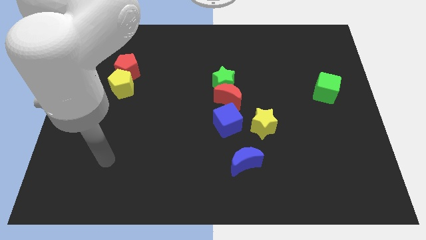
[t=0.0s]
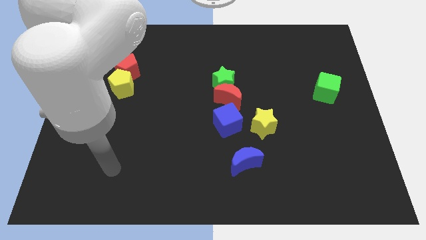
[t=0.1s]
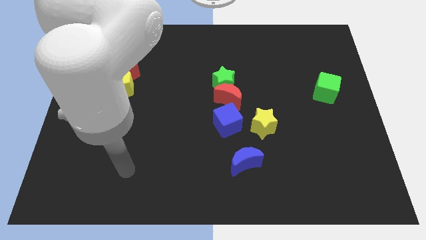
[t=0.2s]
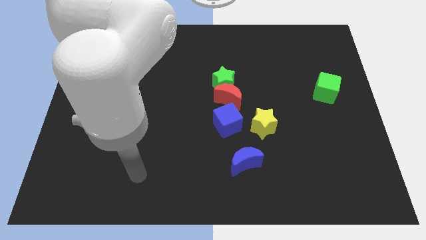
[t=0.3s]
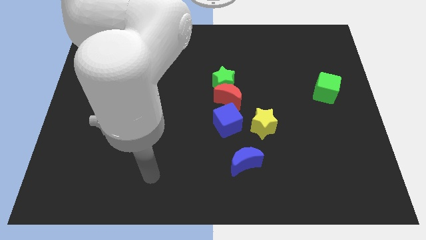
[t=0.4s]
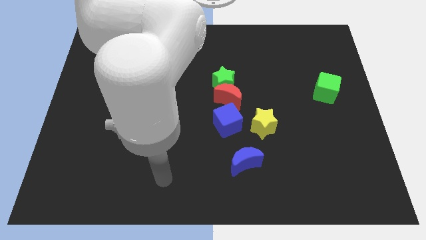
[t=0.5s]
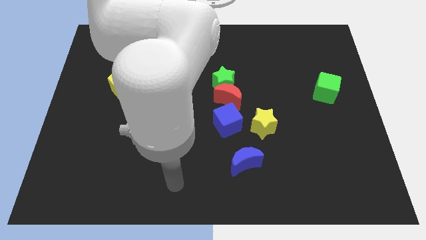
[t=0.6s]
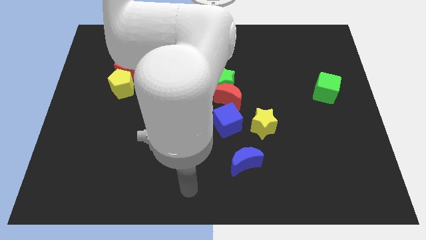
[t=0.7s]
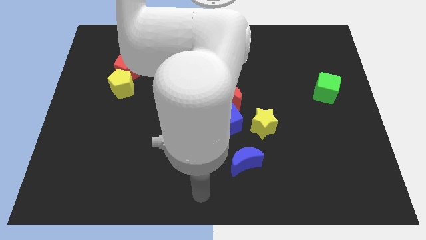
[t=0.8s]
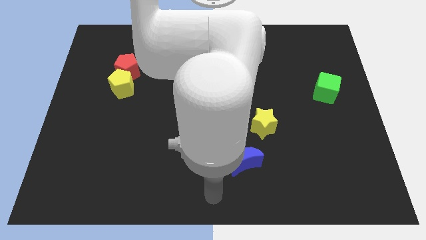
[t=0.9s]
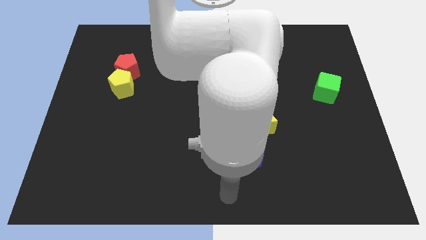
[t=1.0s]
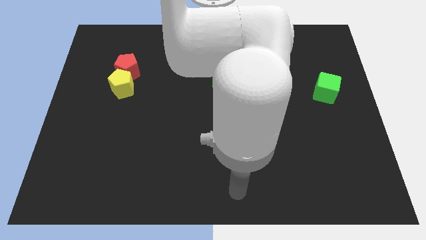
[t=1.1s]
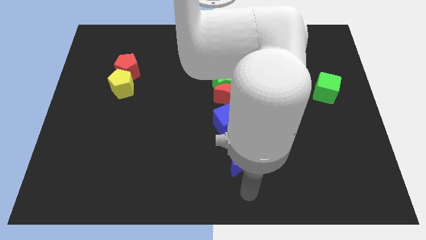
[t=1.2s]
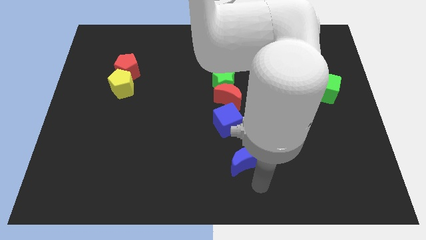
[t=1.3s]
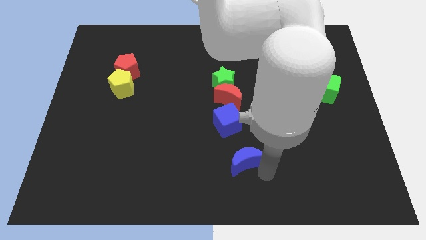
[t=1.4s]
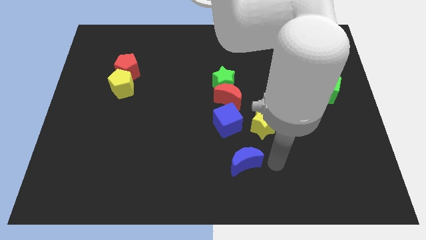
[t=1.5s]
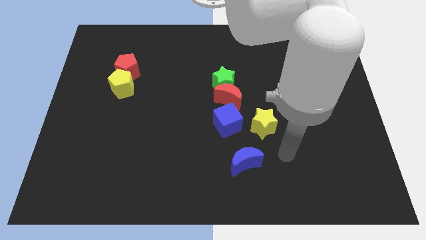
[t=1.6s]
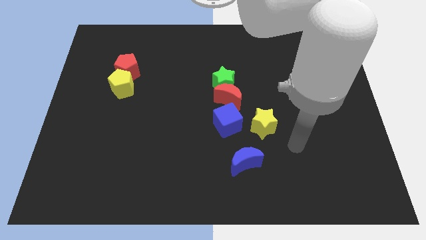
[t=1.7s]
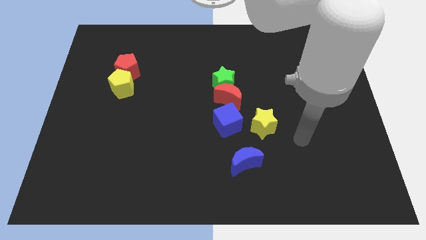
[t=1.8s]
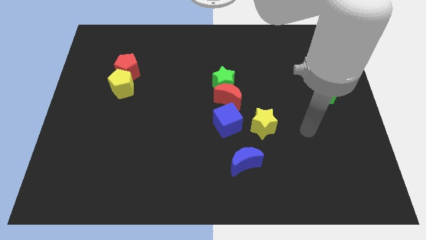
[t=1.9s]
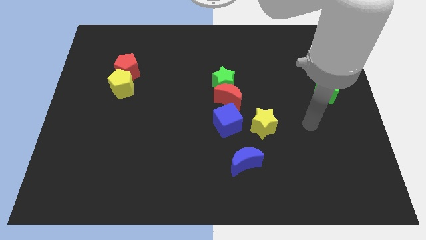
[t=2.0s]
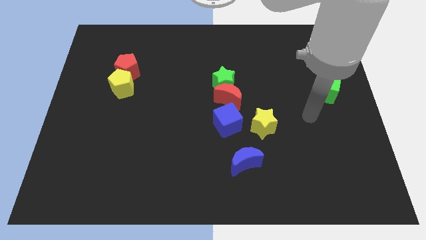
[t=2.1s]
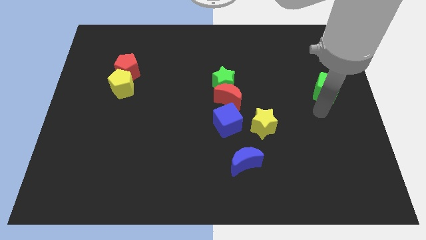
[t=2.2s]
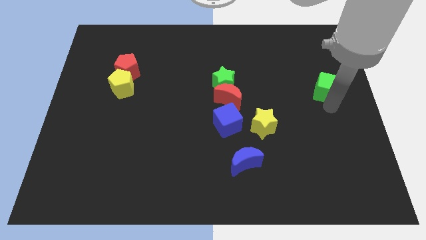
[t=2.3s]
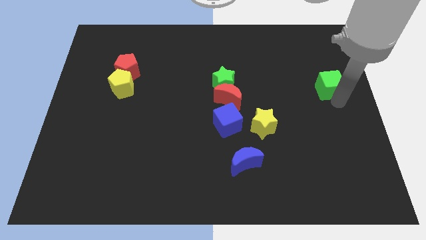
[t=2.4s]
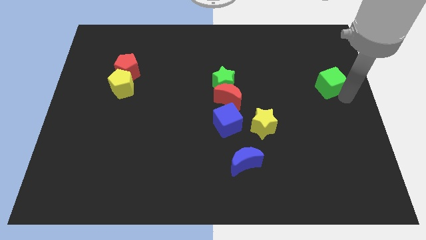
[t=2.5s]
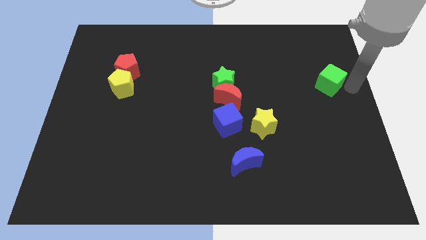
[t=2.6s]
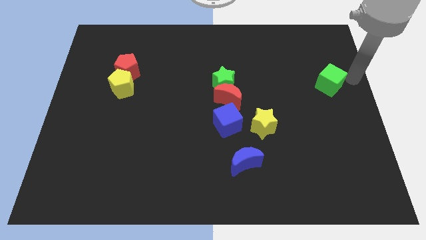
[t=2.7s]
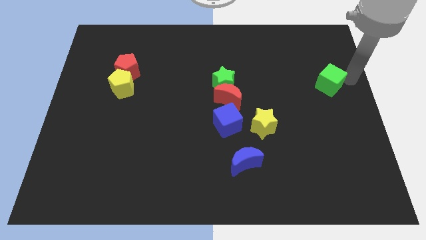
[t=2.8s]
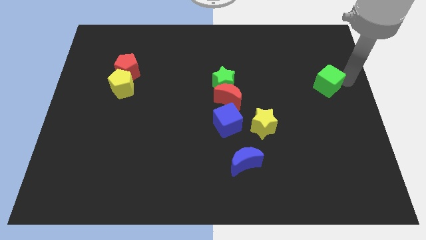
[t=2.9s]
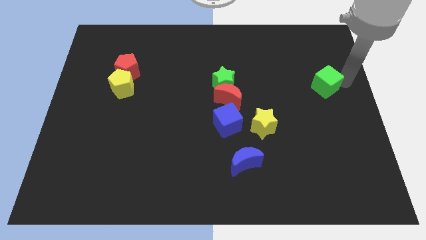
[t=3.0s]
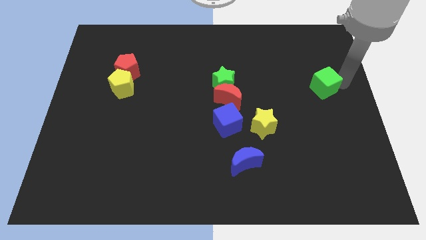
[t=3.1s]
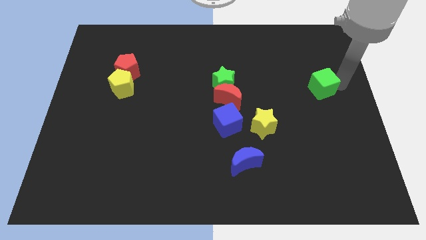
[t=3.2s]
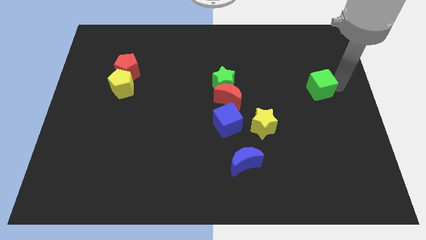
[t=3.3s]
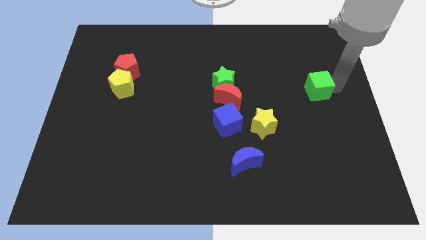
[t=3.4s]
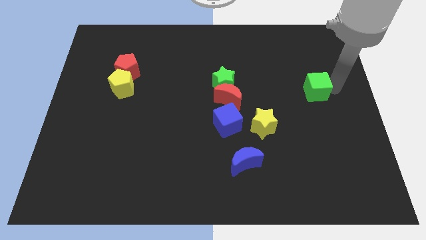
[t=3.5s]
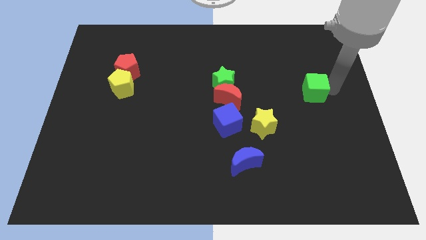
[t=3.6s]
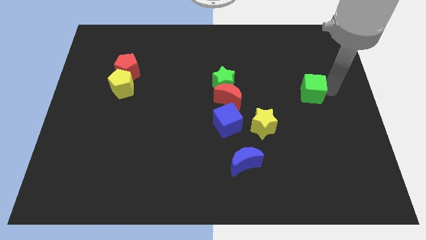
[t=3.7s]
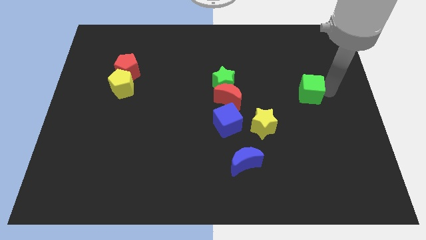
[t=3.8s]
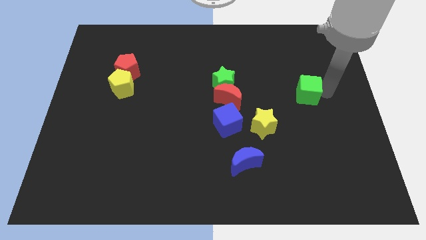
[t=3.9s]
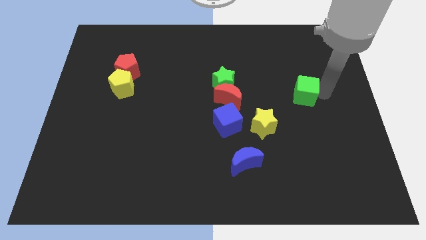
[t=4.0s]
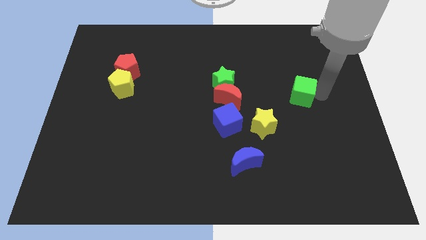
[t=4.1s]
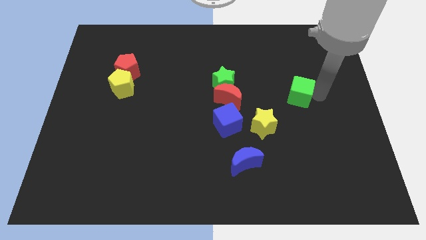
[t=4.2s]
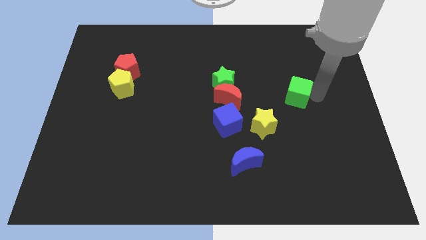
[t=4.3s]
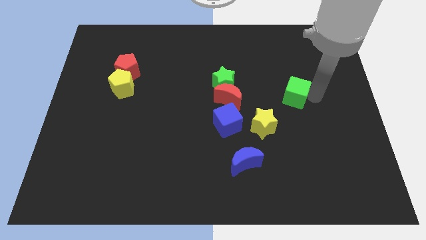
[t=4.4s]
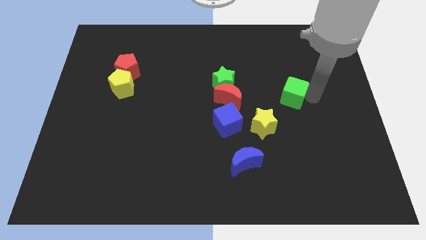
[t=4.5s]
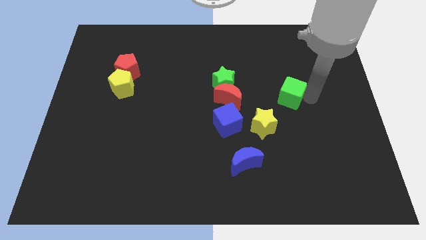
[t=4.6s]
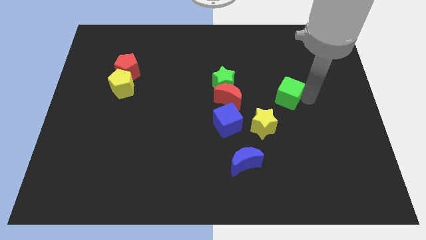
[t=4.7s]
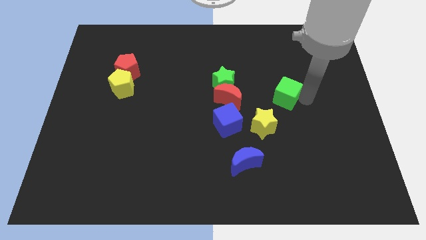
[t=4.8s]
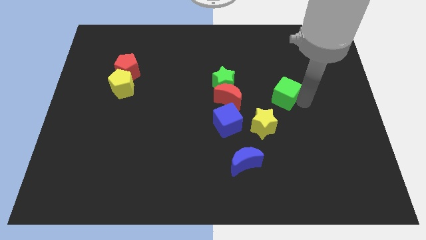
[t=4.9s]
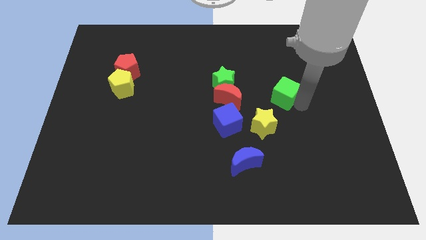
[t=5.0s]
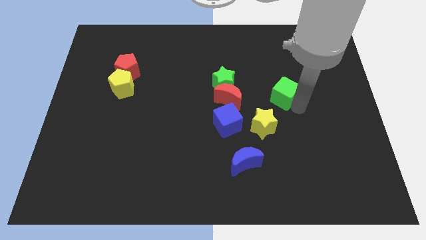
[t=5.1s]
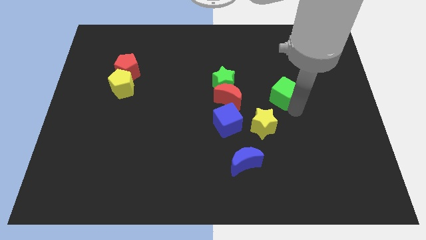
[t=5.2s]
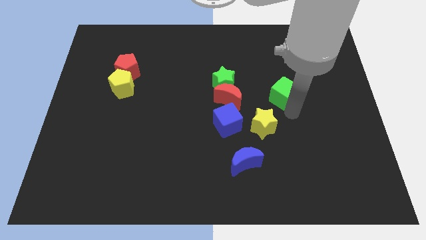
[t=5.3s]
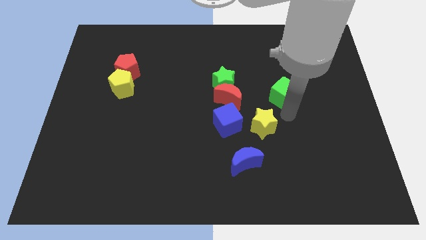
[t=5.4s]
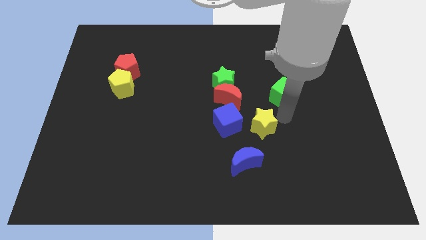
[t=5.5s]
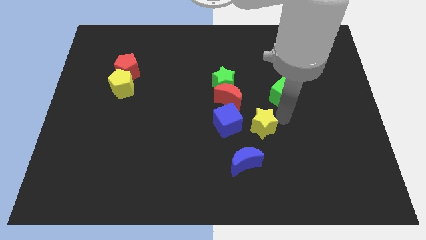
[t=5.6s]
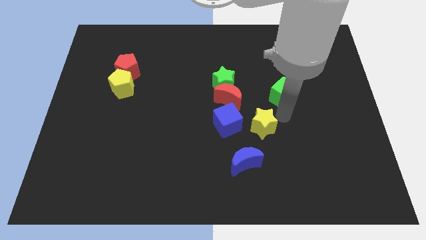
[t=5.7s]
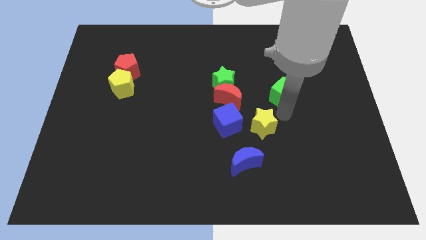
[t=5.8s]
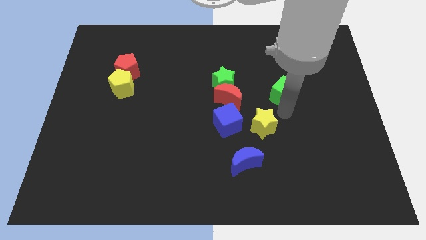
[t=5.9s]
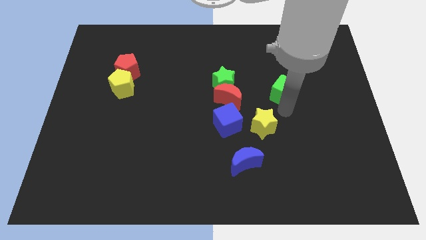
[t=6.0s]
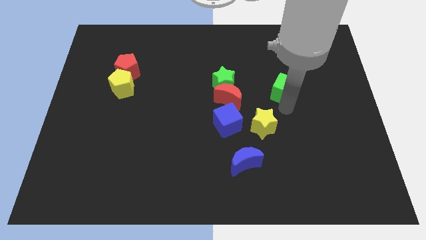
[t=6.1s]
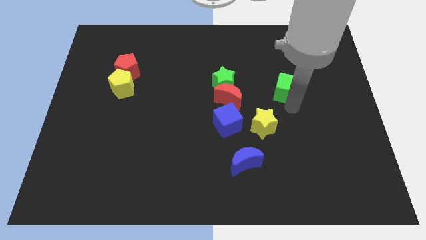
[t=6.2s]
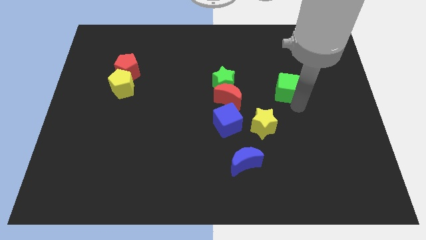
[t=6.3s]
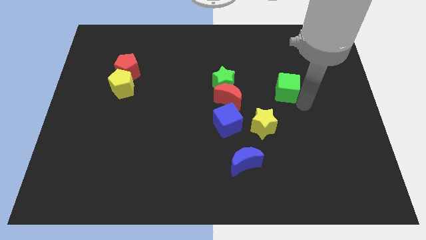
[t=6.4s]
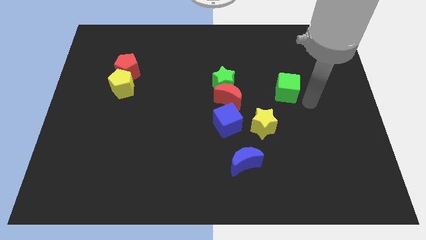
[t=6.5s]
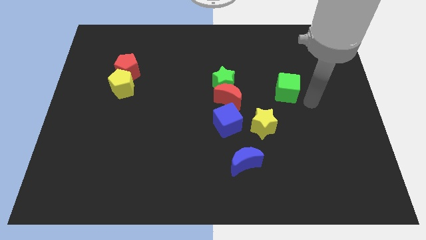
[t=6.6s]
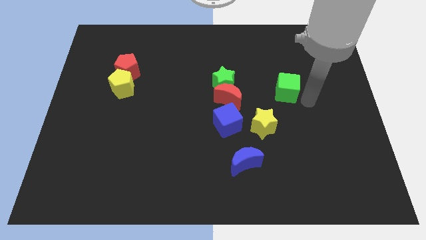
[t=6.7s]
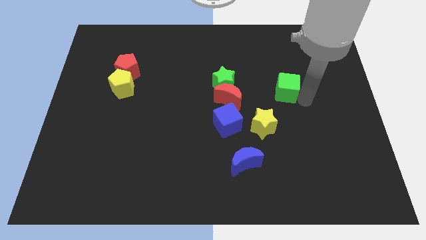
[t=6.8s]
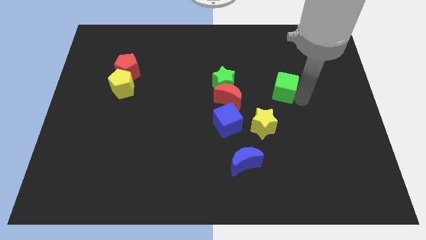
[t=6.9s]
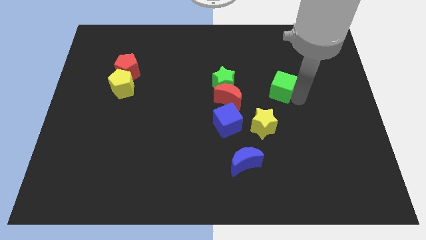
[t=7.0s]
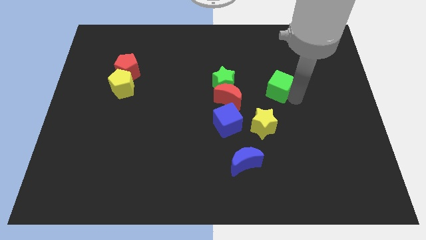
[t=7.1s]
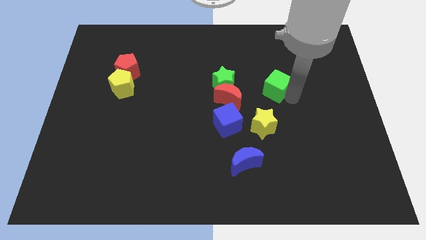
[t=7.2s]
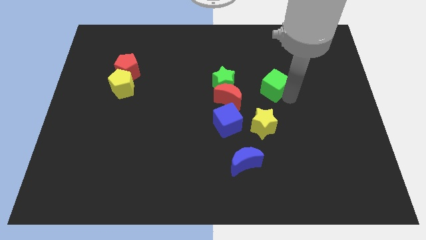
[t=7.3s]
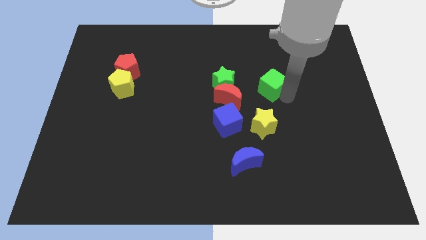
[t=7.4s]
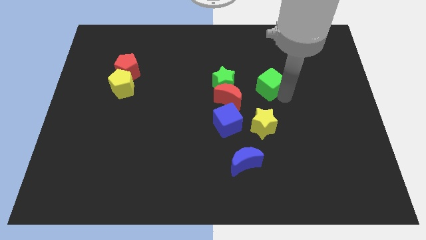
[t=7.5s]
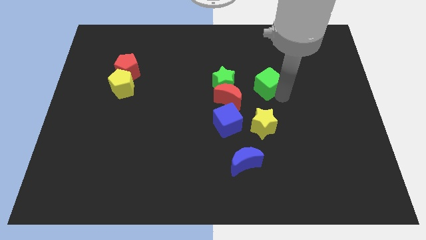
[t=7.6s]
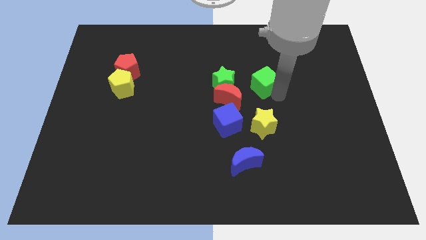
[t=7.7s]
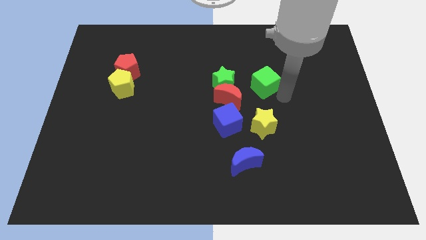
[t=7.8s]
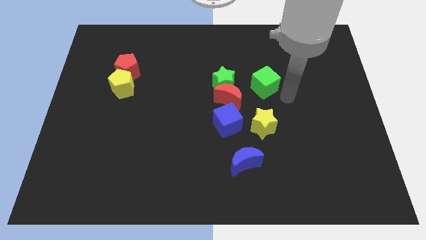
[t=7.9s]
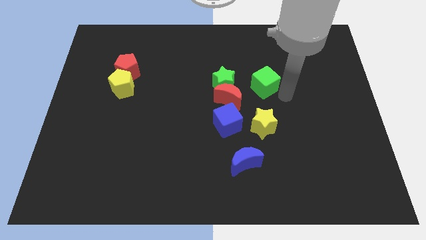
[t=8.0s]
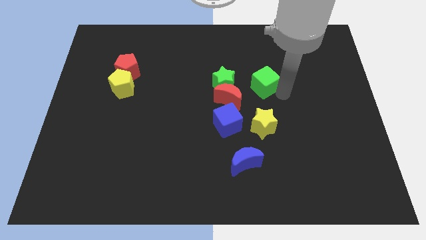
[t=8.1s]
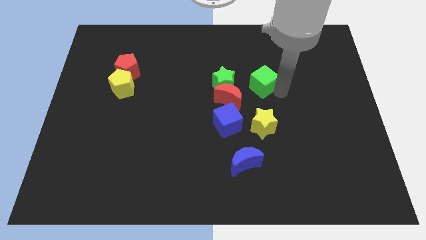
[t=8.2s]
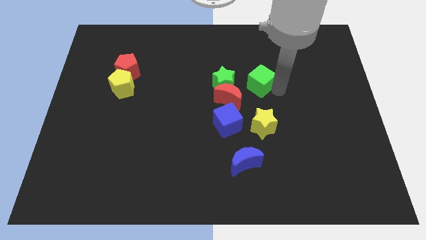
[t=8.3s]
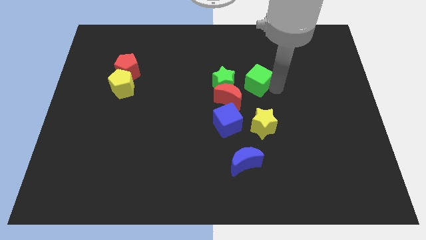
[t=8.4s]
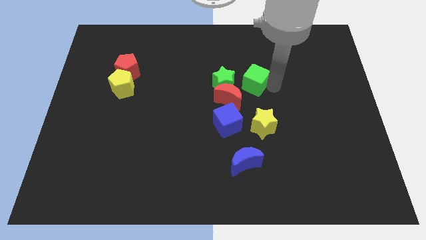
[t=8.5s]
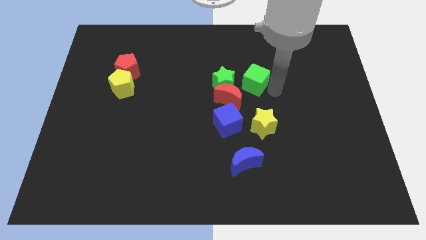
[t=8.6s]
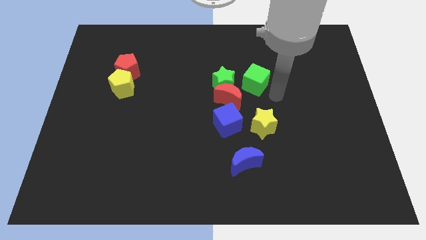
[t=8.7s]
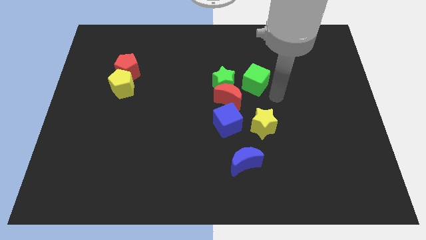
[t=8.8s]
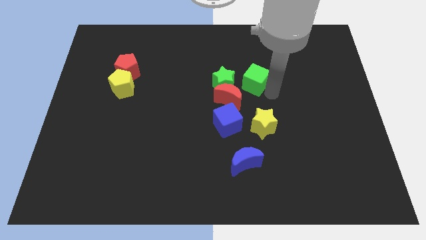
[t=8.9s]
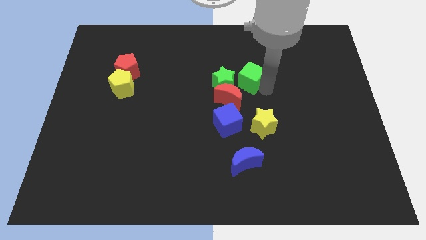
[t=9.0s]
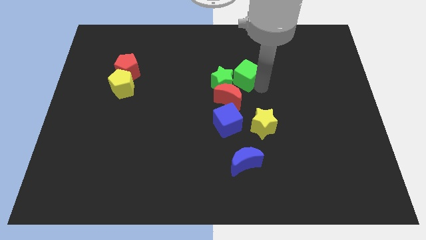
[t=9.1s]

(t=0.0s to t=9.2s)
move the green cube to the top side of the red moon
